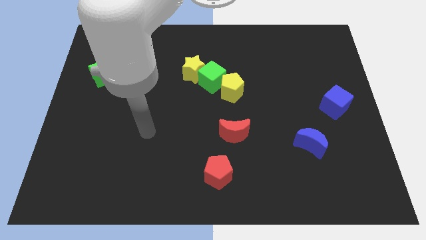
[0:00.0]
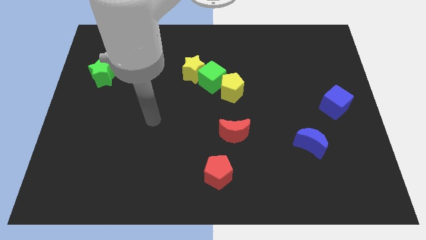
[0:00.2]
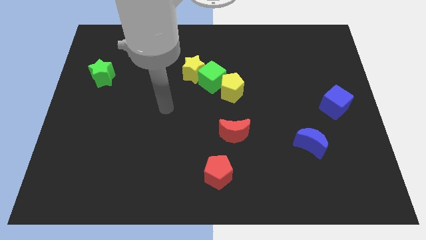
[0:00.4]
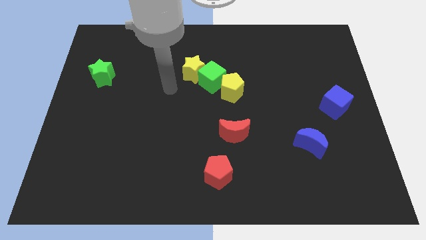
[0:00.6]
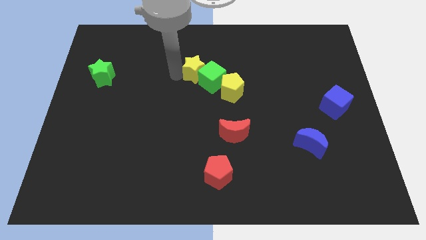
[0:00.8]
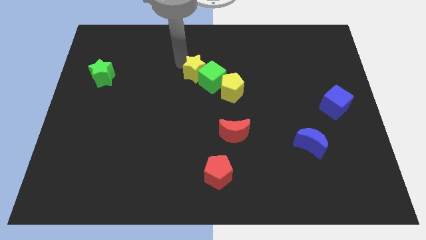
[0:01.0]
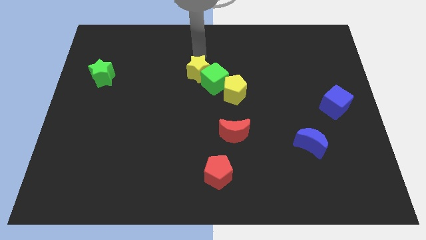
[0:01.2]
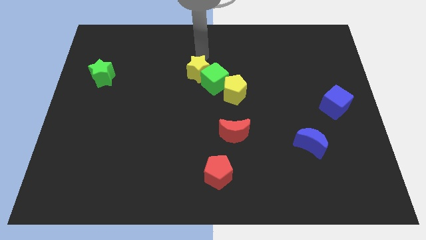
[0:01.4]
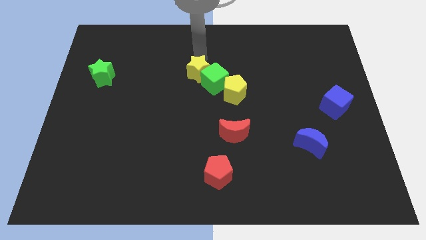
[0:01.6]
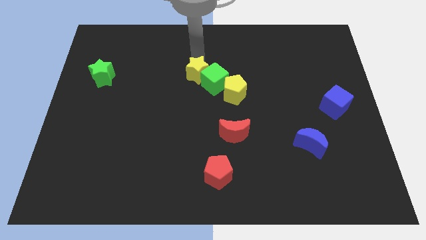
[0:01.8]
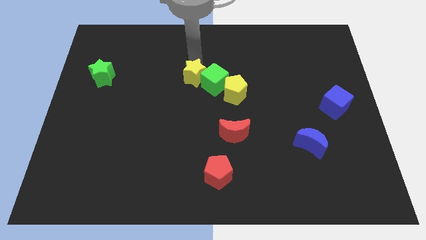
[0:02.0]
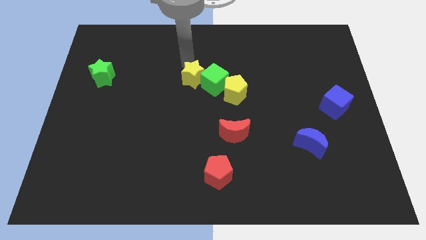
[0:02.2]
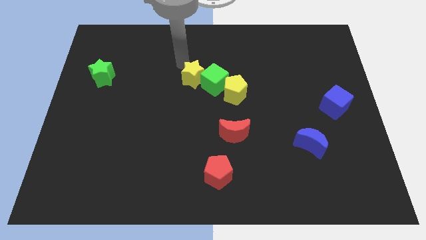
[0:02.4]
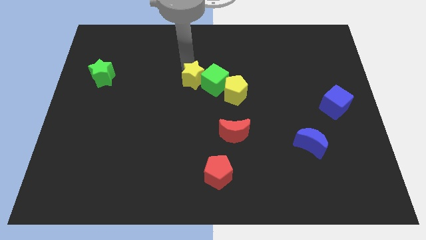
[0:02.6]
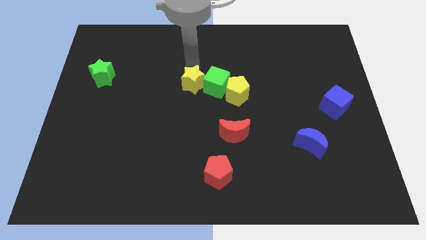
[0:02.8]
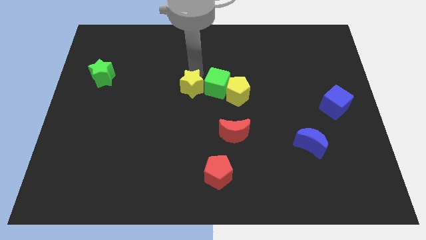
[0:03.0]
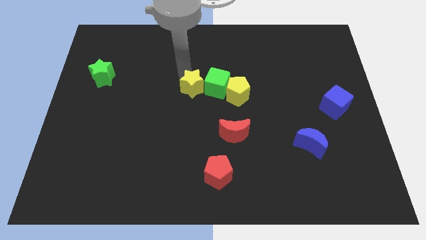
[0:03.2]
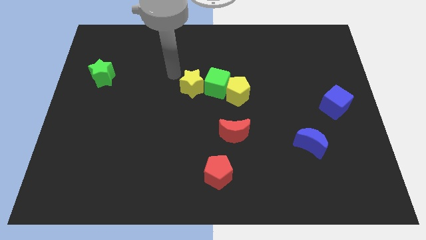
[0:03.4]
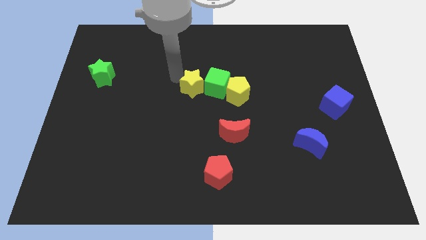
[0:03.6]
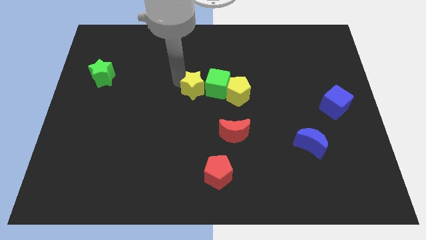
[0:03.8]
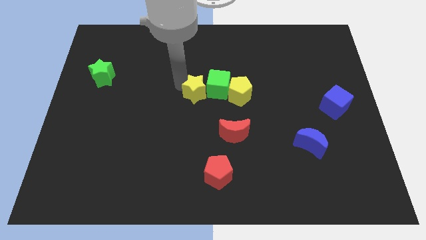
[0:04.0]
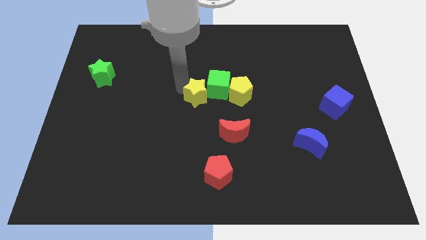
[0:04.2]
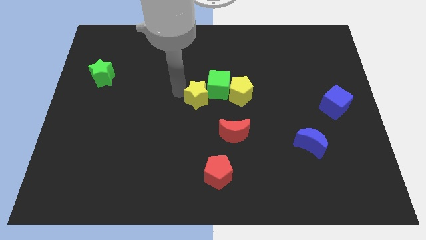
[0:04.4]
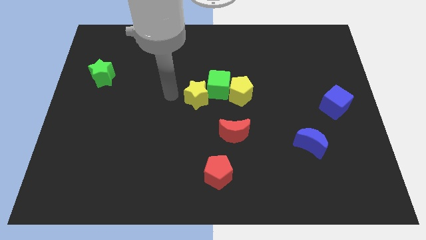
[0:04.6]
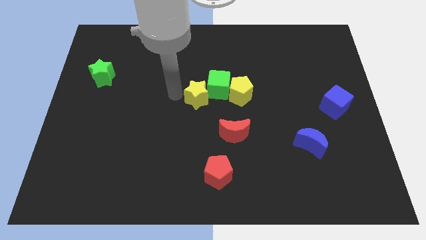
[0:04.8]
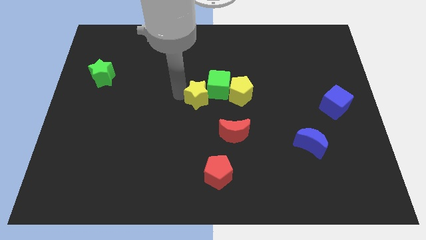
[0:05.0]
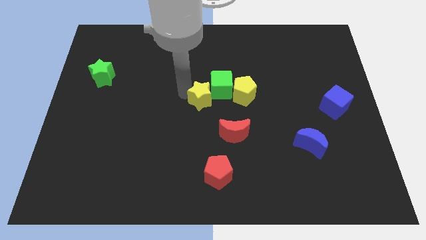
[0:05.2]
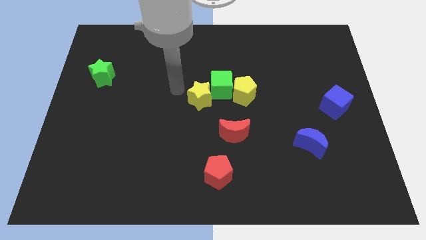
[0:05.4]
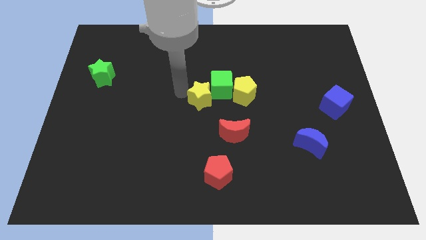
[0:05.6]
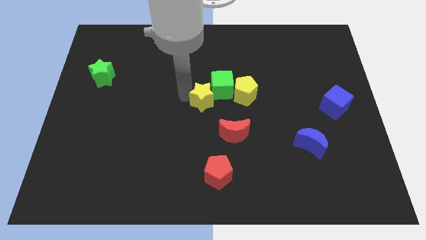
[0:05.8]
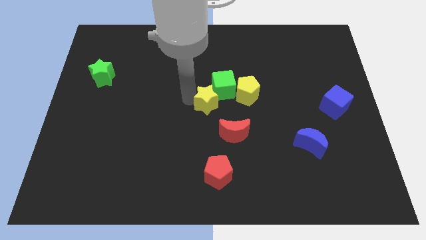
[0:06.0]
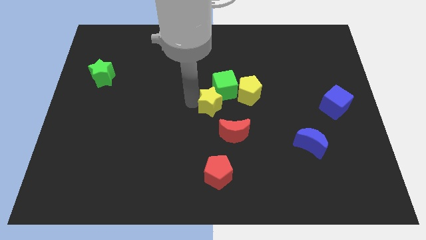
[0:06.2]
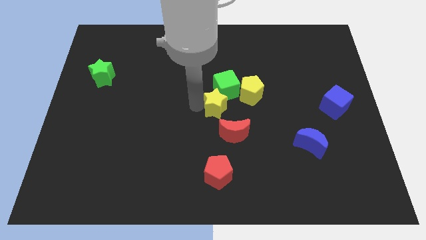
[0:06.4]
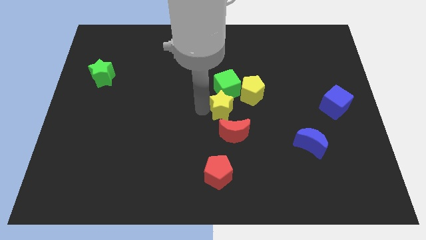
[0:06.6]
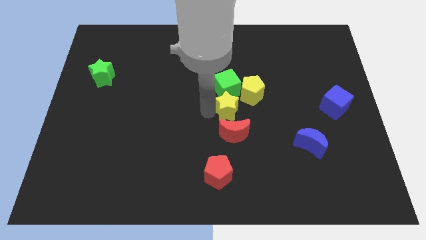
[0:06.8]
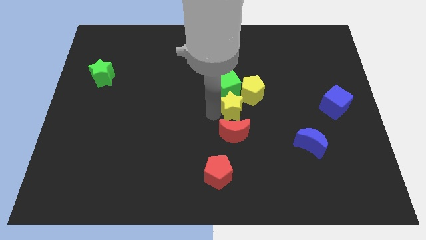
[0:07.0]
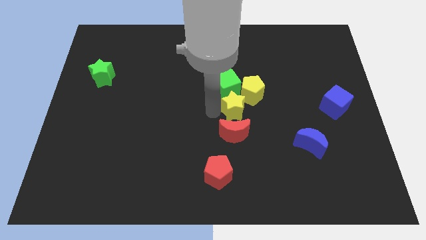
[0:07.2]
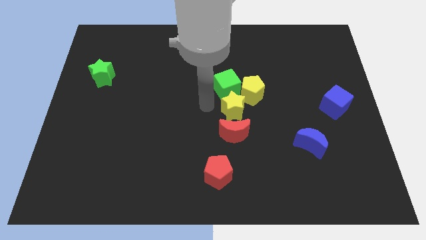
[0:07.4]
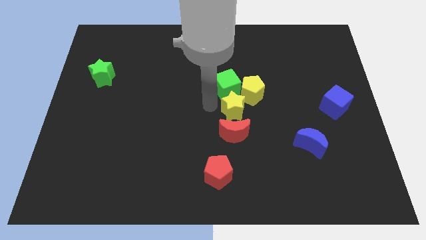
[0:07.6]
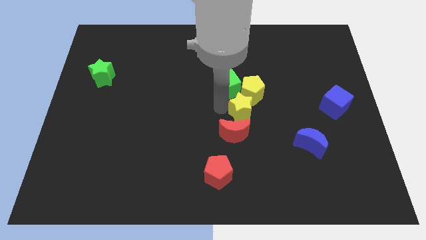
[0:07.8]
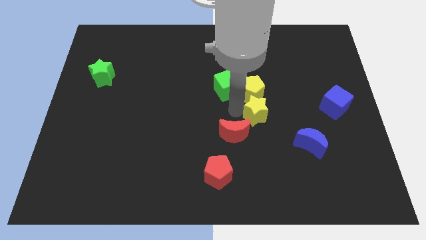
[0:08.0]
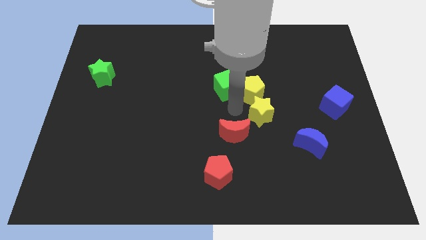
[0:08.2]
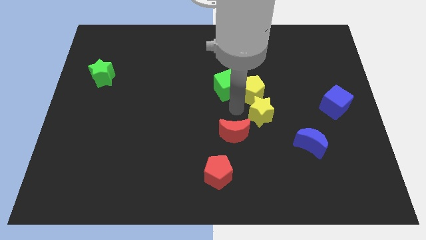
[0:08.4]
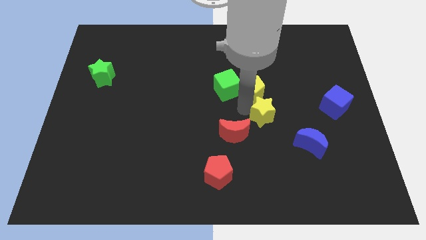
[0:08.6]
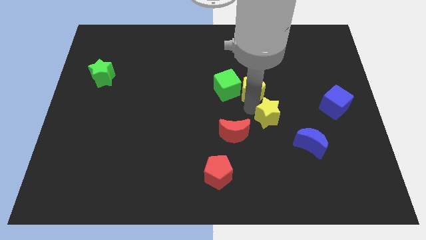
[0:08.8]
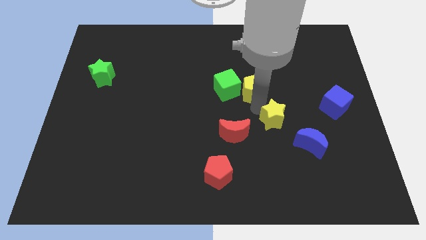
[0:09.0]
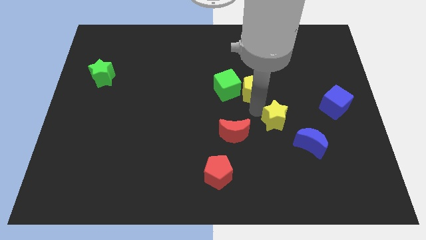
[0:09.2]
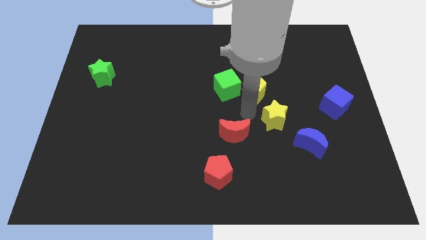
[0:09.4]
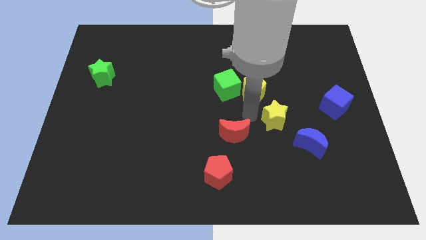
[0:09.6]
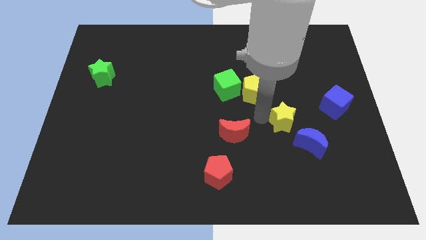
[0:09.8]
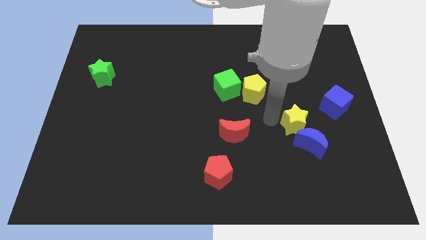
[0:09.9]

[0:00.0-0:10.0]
slide the yellow star to the bottom left side of the blue cube

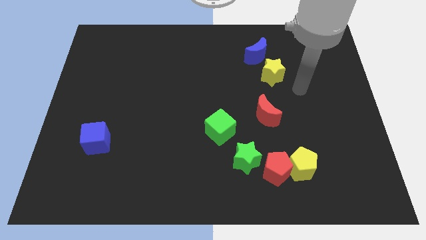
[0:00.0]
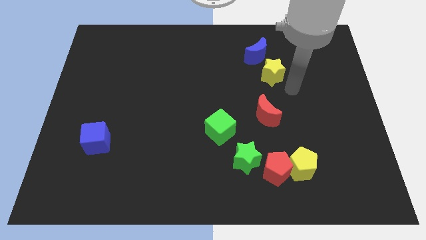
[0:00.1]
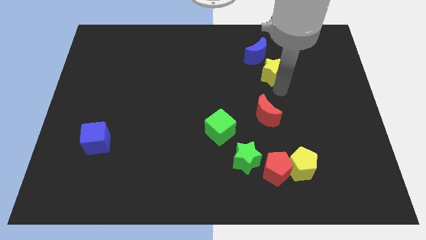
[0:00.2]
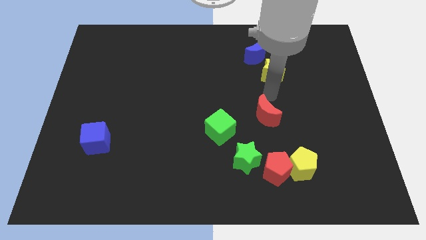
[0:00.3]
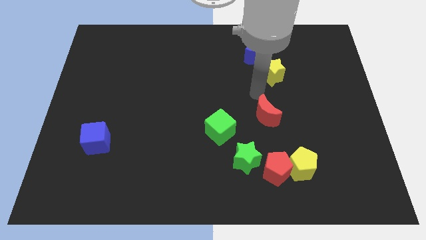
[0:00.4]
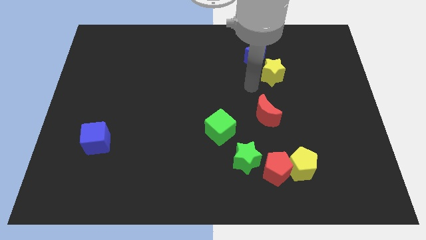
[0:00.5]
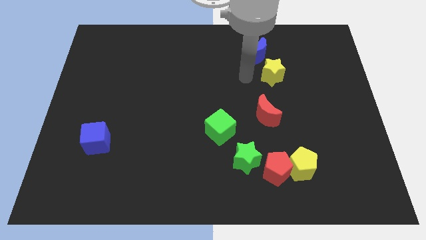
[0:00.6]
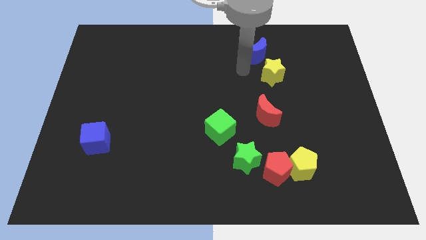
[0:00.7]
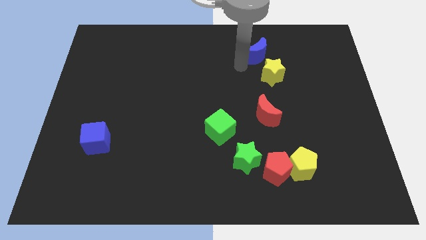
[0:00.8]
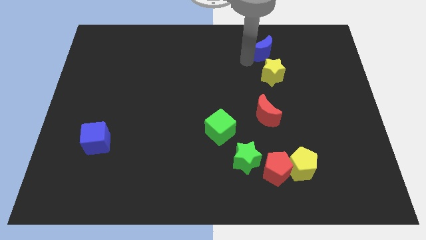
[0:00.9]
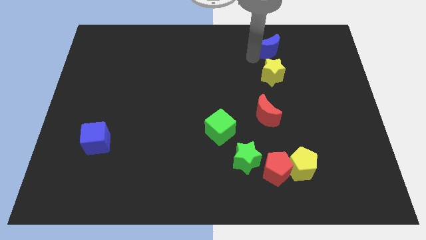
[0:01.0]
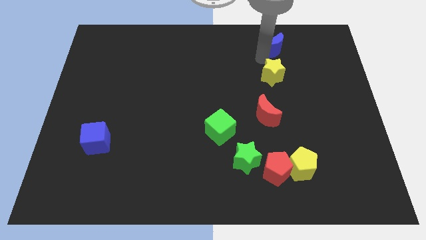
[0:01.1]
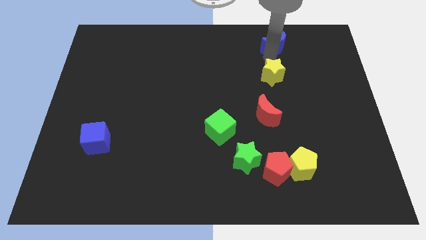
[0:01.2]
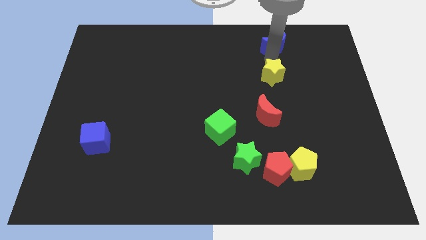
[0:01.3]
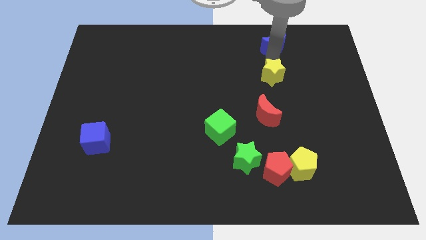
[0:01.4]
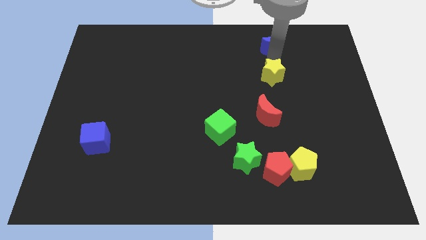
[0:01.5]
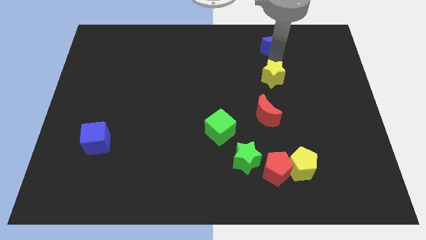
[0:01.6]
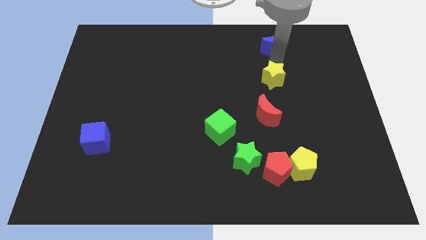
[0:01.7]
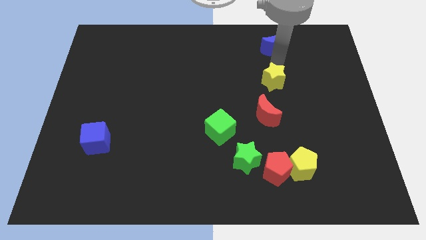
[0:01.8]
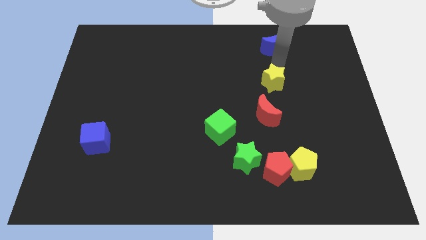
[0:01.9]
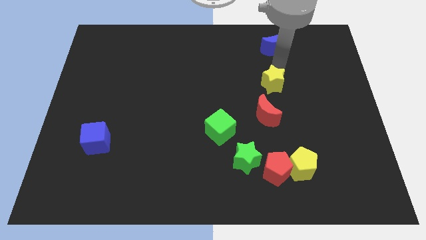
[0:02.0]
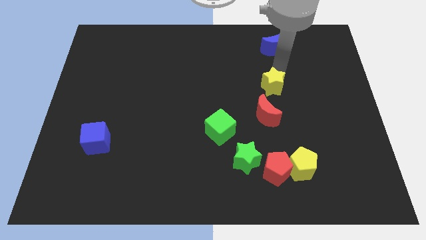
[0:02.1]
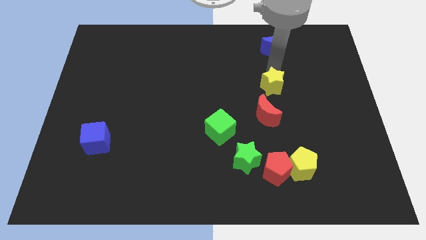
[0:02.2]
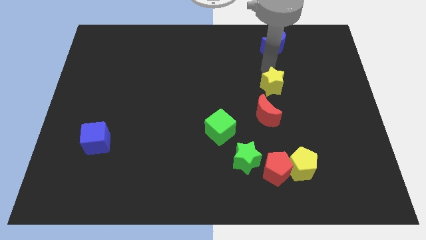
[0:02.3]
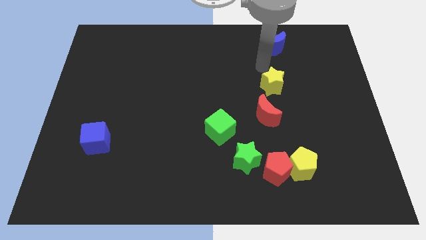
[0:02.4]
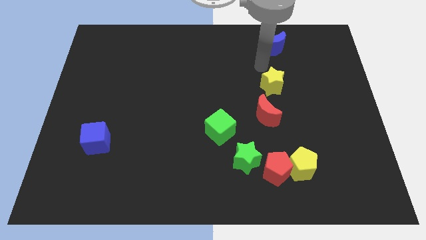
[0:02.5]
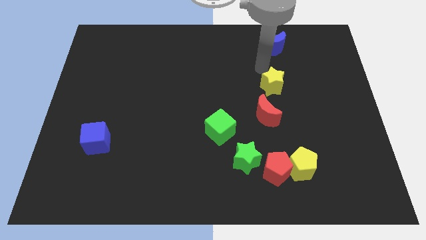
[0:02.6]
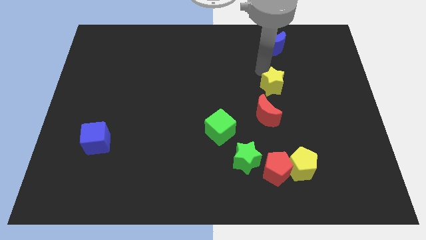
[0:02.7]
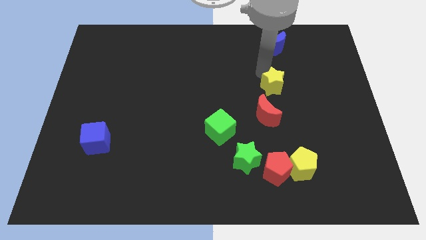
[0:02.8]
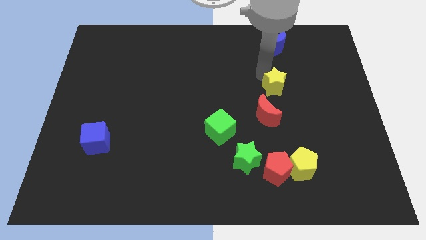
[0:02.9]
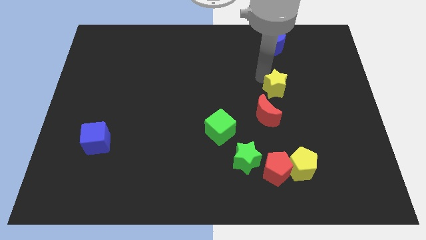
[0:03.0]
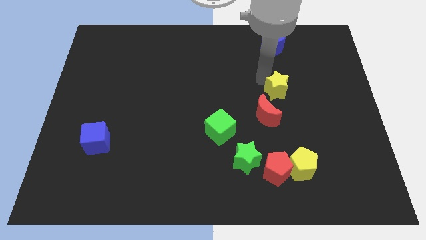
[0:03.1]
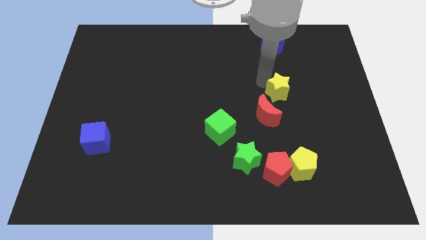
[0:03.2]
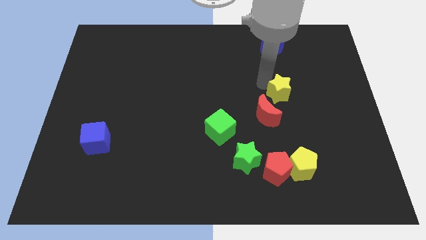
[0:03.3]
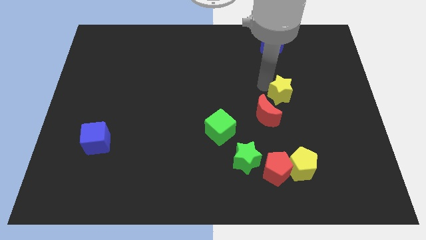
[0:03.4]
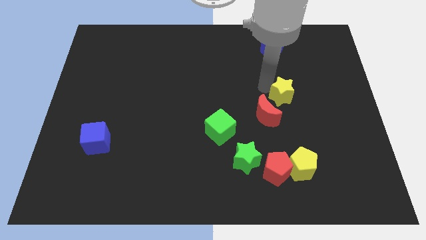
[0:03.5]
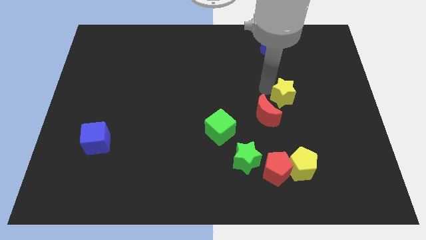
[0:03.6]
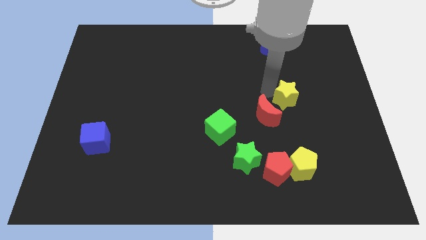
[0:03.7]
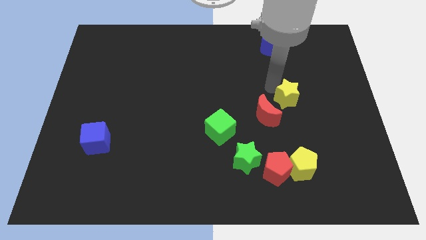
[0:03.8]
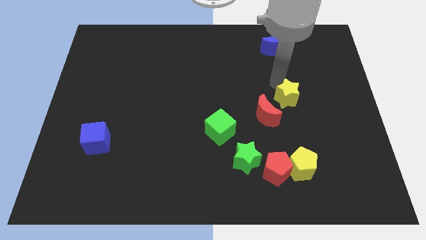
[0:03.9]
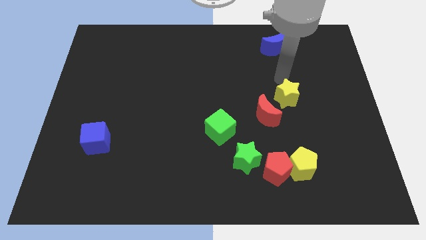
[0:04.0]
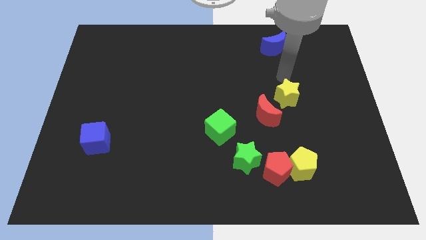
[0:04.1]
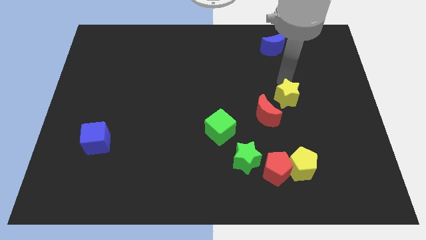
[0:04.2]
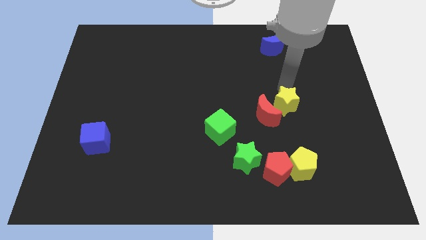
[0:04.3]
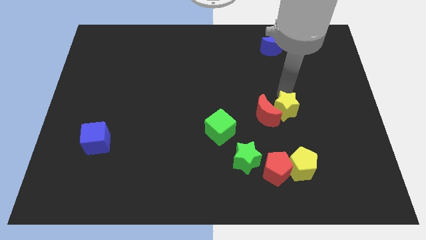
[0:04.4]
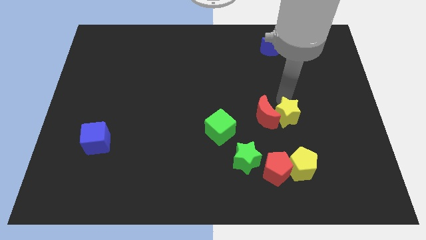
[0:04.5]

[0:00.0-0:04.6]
push the yellow star to the top side of the red pentagon
